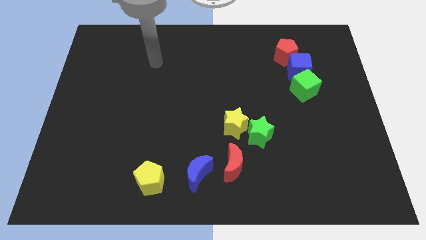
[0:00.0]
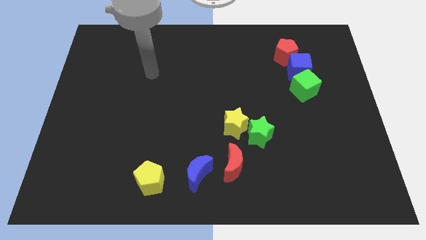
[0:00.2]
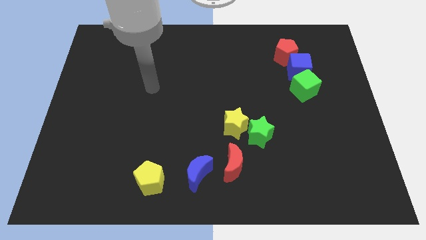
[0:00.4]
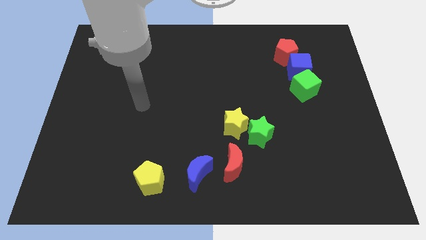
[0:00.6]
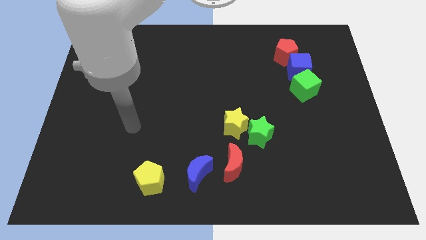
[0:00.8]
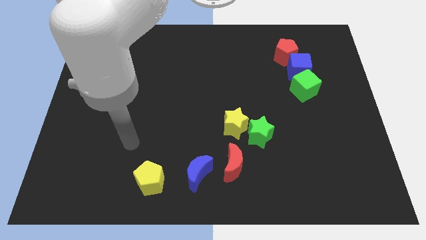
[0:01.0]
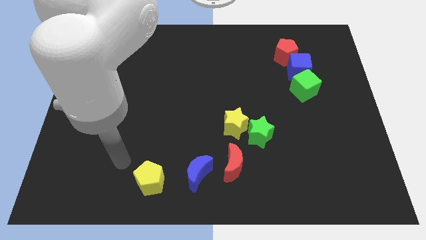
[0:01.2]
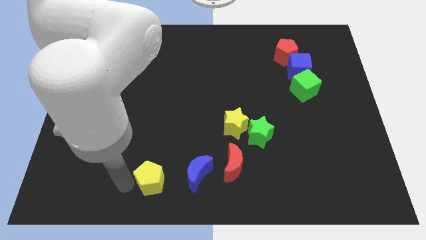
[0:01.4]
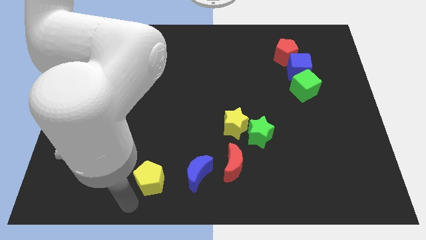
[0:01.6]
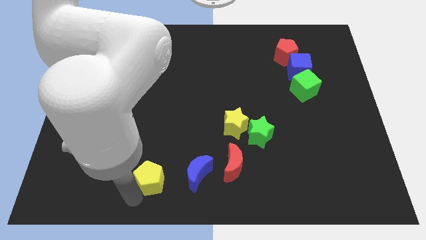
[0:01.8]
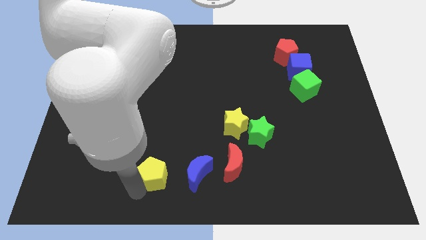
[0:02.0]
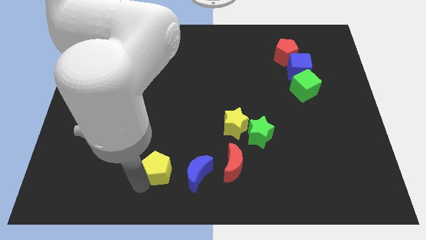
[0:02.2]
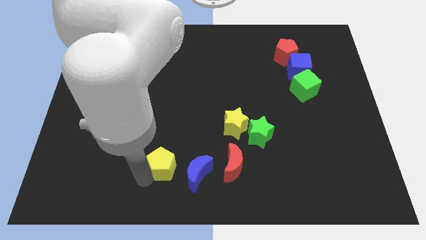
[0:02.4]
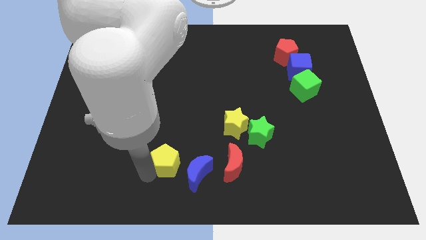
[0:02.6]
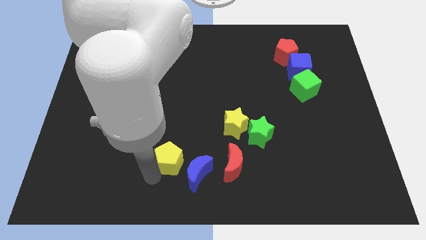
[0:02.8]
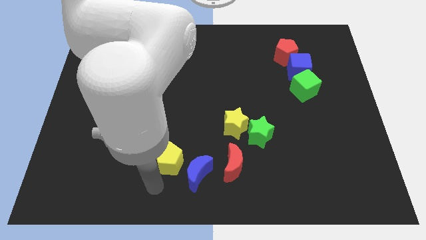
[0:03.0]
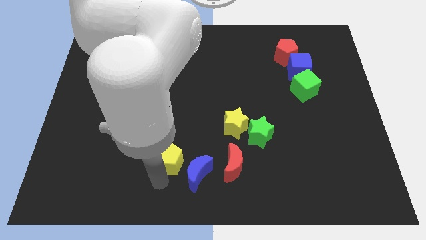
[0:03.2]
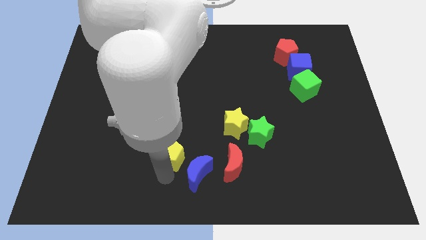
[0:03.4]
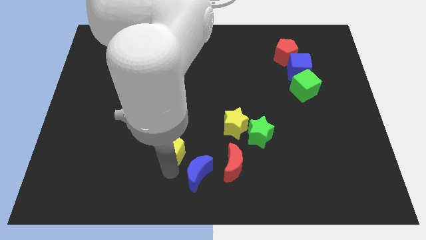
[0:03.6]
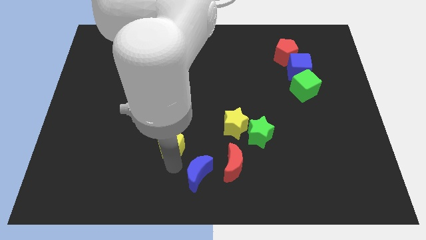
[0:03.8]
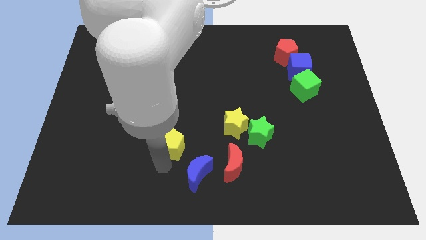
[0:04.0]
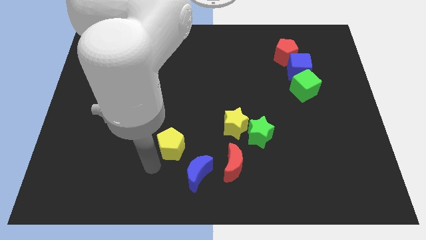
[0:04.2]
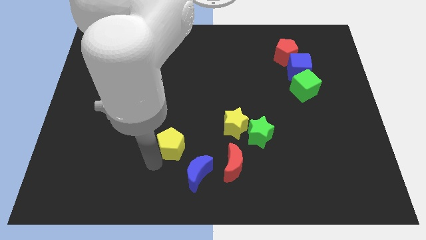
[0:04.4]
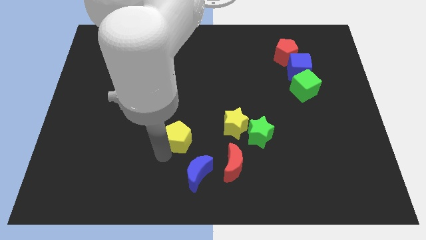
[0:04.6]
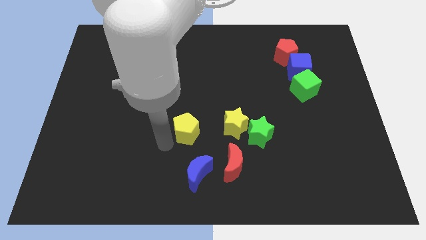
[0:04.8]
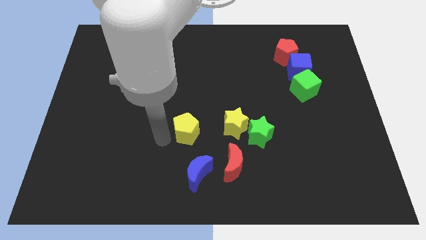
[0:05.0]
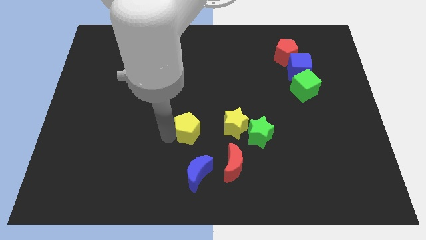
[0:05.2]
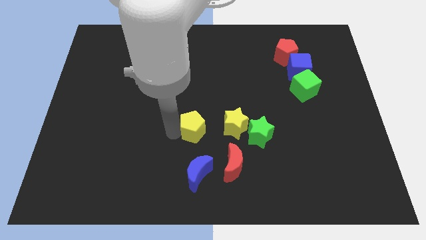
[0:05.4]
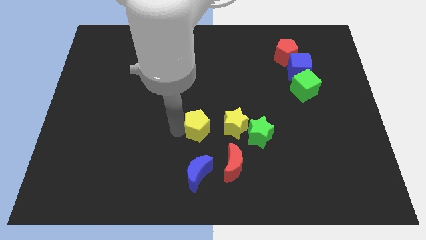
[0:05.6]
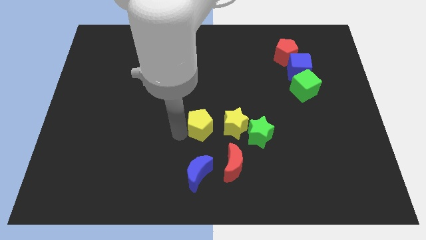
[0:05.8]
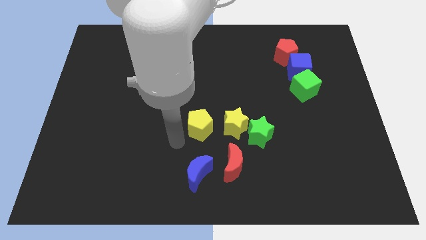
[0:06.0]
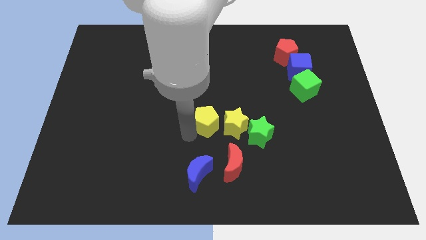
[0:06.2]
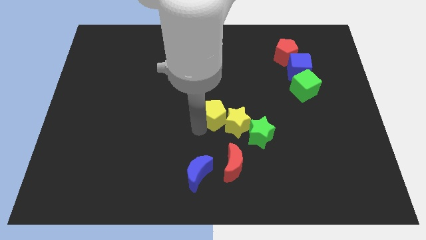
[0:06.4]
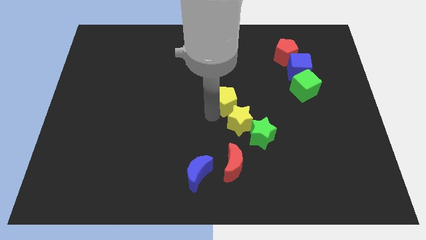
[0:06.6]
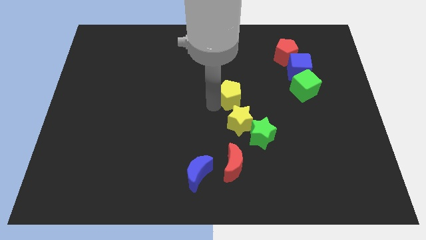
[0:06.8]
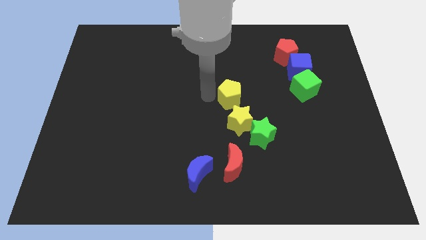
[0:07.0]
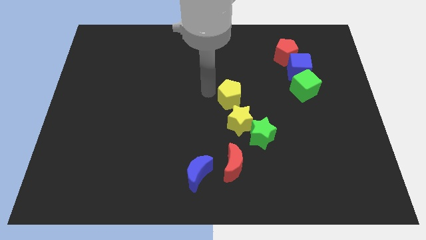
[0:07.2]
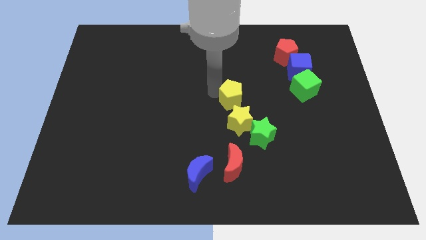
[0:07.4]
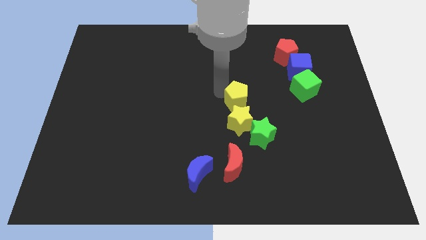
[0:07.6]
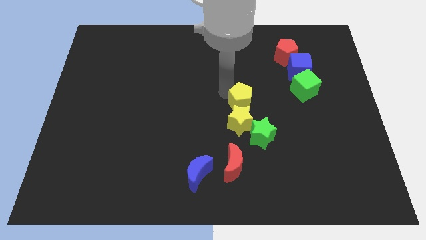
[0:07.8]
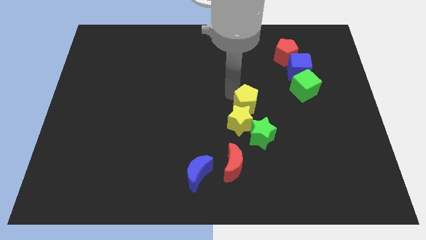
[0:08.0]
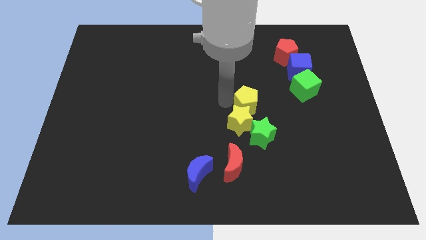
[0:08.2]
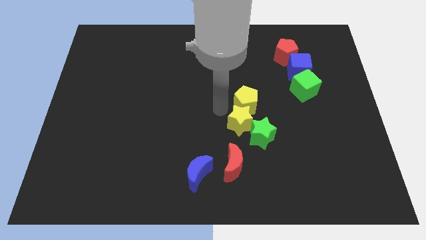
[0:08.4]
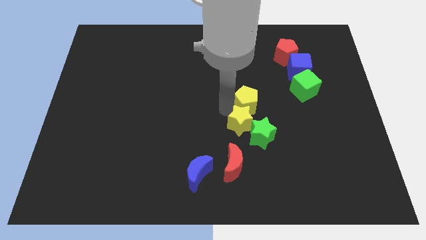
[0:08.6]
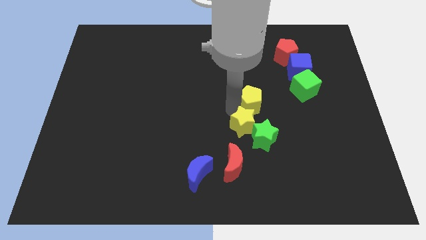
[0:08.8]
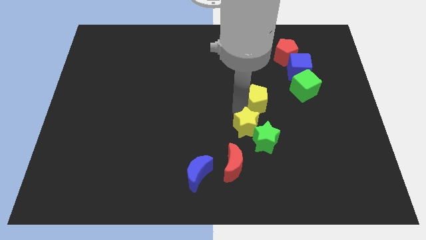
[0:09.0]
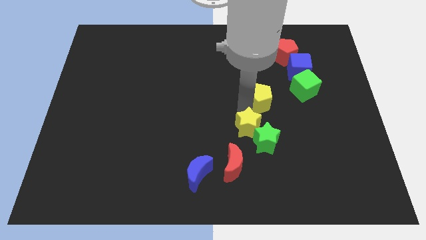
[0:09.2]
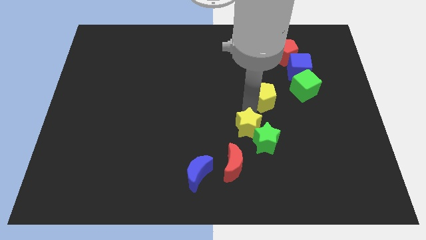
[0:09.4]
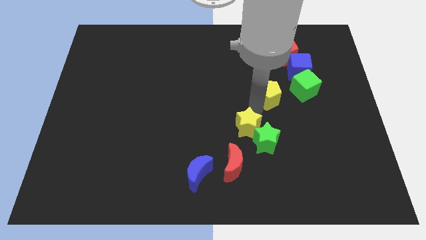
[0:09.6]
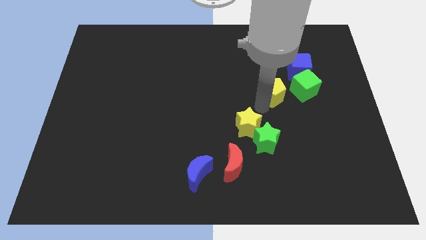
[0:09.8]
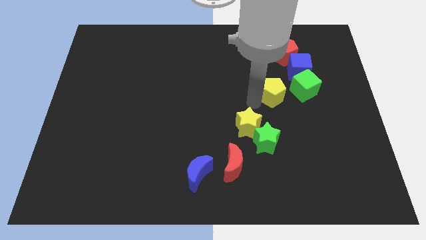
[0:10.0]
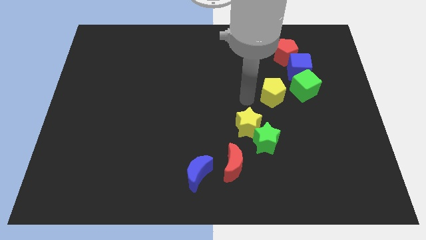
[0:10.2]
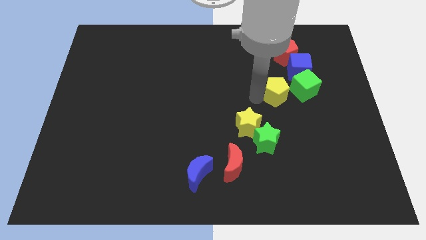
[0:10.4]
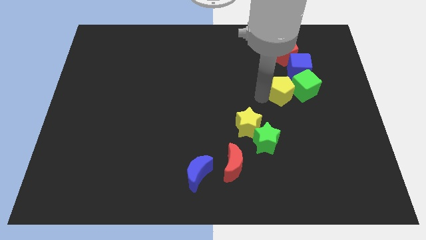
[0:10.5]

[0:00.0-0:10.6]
push the yellow pentagon close to the green cube

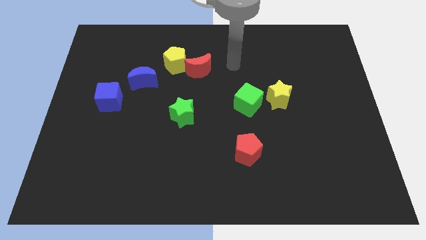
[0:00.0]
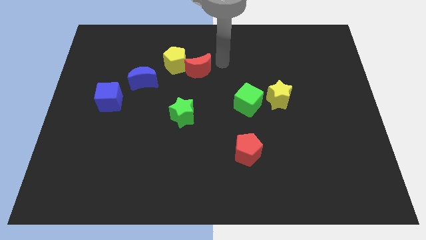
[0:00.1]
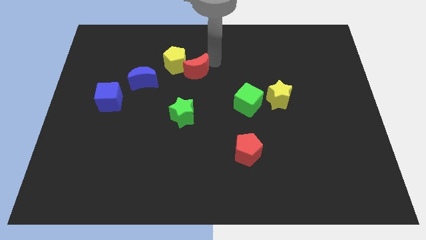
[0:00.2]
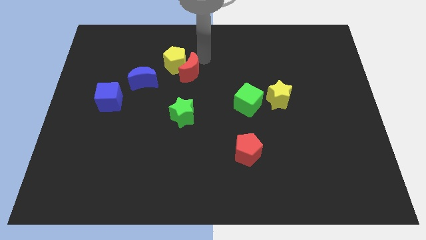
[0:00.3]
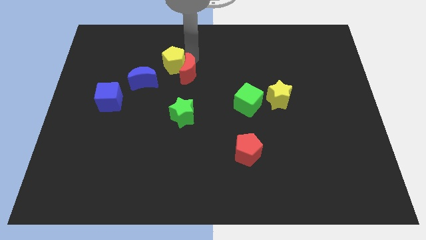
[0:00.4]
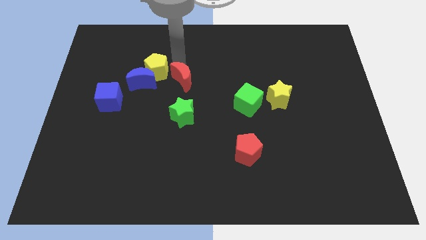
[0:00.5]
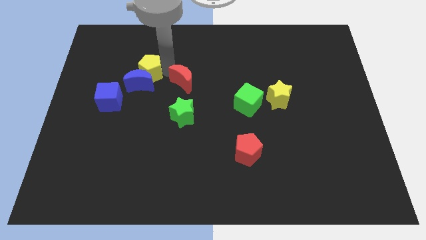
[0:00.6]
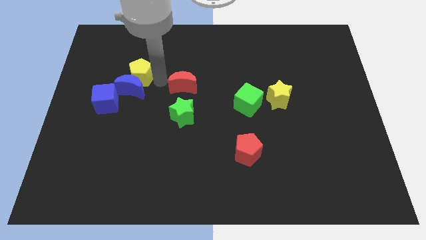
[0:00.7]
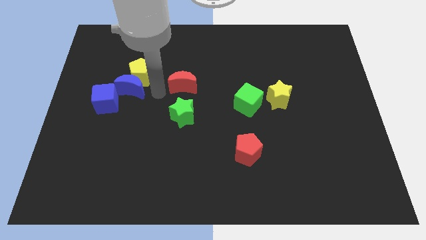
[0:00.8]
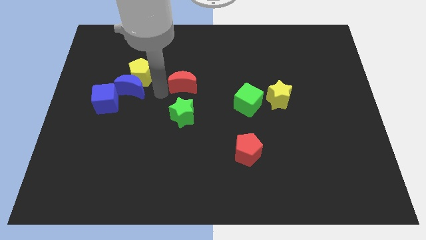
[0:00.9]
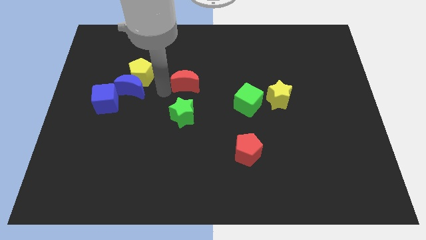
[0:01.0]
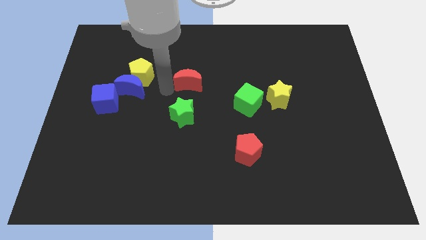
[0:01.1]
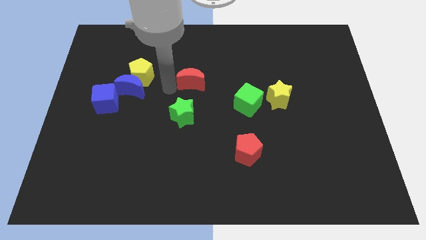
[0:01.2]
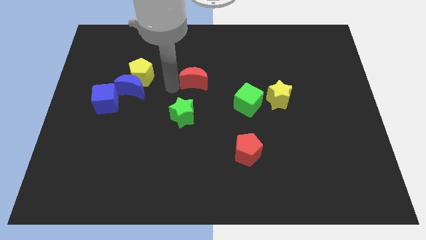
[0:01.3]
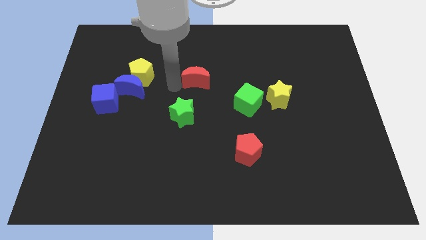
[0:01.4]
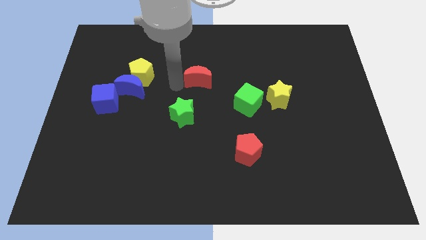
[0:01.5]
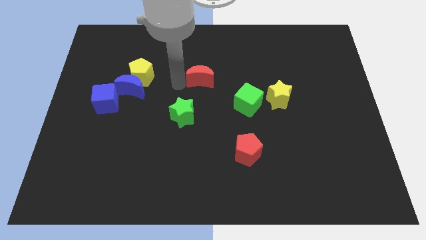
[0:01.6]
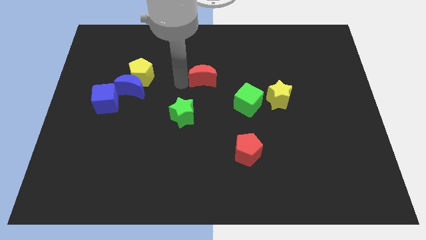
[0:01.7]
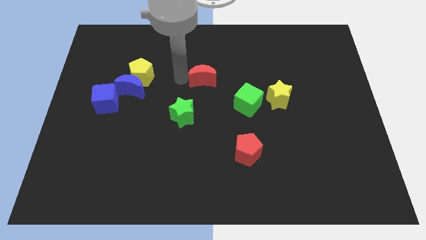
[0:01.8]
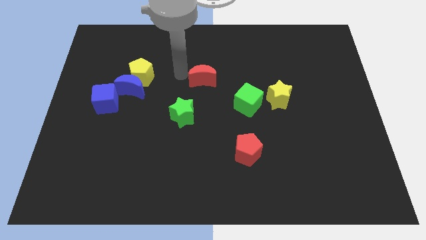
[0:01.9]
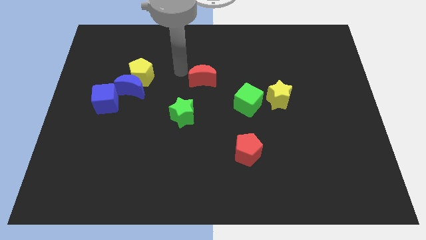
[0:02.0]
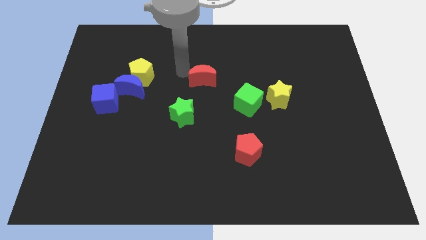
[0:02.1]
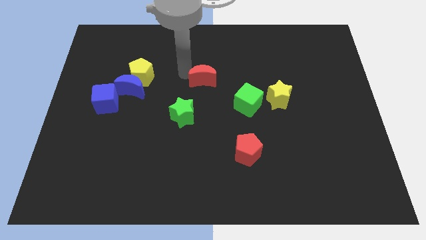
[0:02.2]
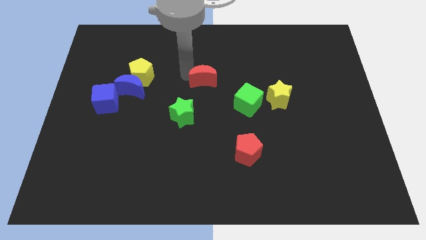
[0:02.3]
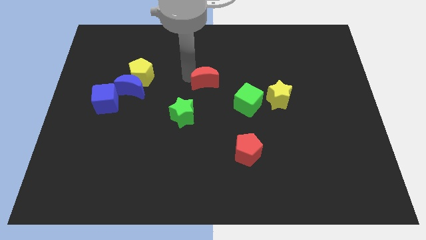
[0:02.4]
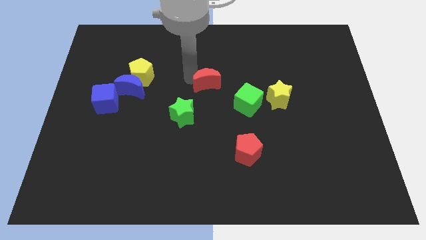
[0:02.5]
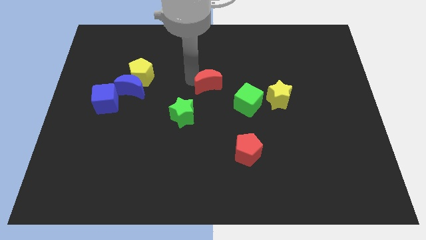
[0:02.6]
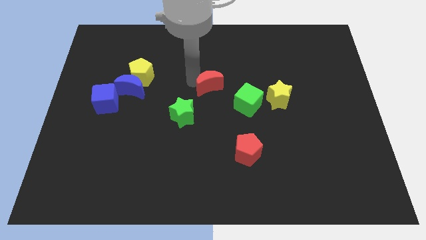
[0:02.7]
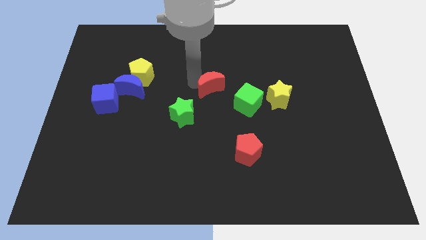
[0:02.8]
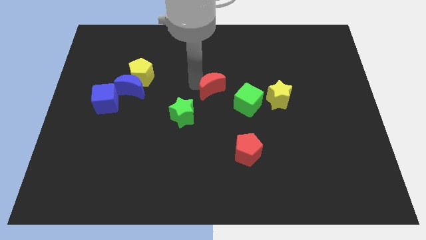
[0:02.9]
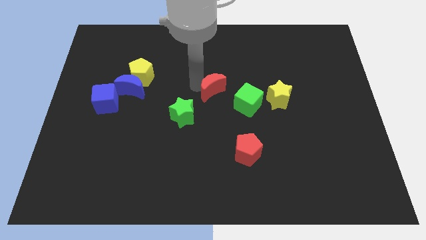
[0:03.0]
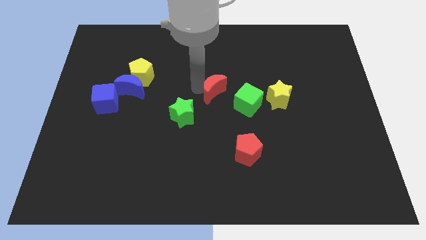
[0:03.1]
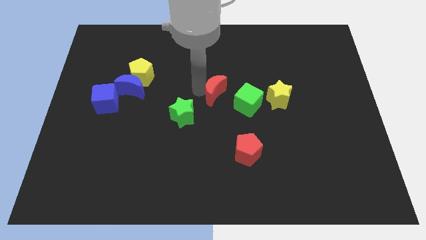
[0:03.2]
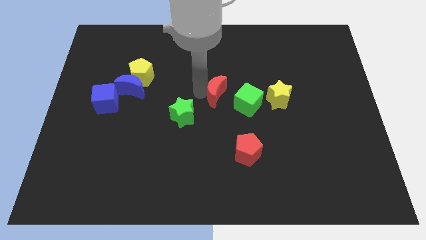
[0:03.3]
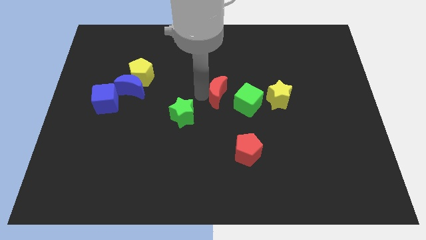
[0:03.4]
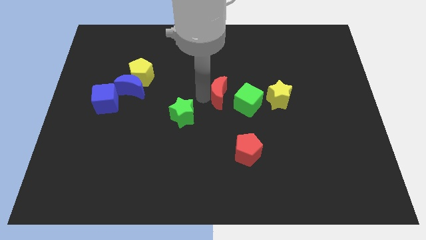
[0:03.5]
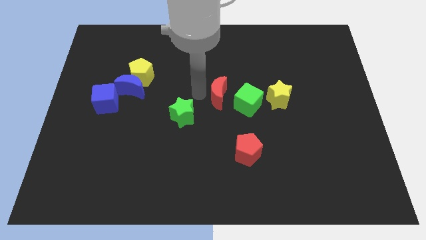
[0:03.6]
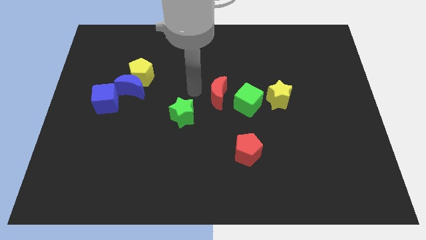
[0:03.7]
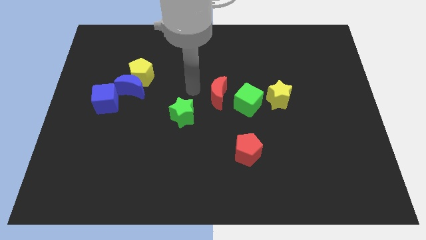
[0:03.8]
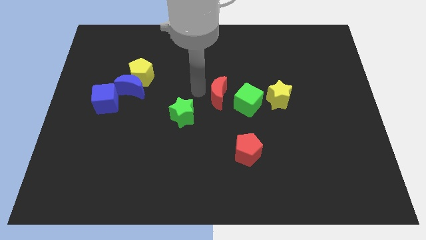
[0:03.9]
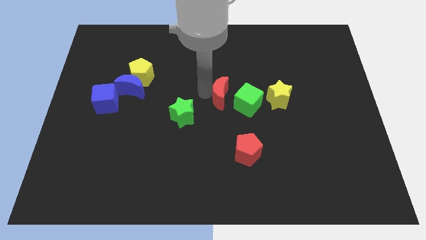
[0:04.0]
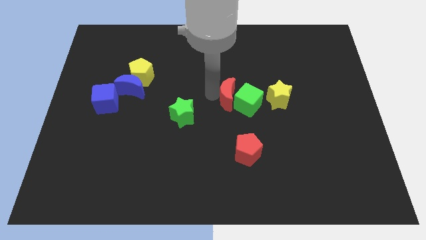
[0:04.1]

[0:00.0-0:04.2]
slide the red moon next to the green cube
